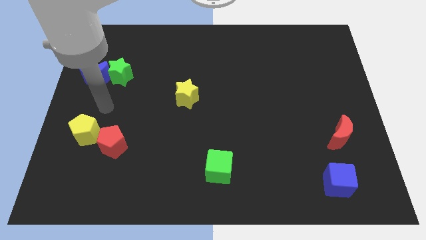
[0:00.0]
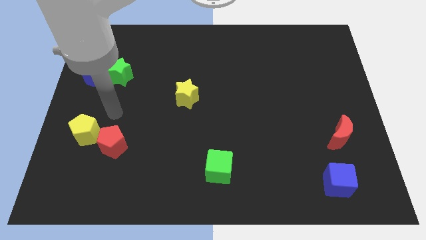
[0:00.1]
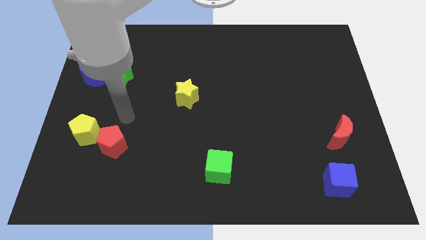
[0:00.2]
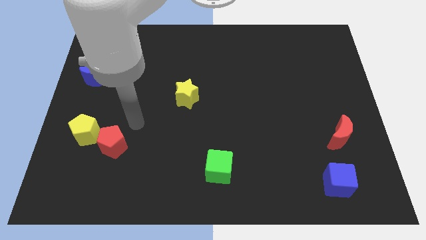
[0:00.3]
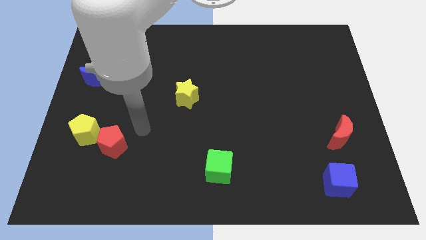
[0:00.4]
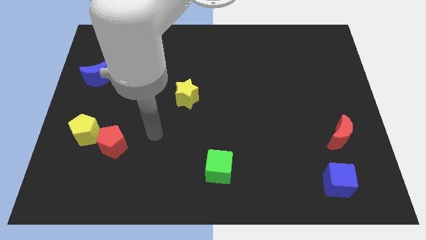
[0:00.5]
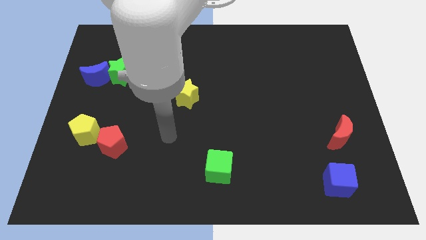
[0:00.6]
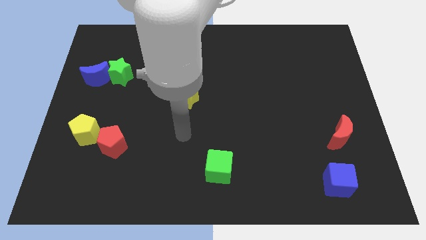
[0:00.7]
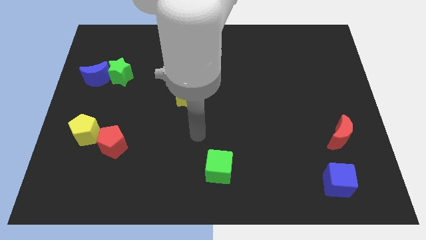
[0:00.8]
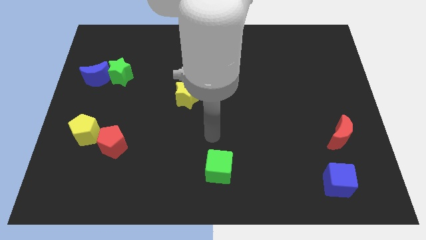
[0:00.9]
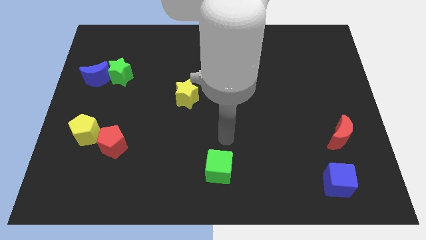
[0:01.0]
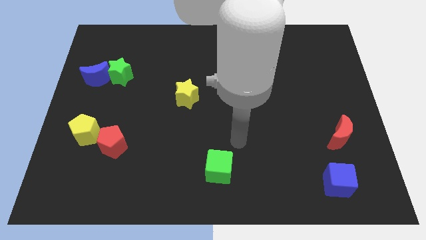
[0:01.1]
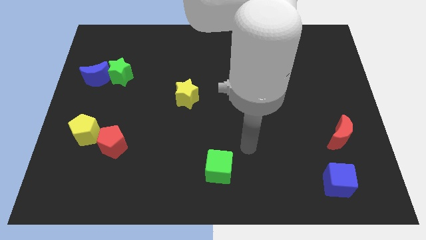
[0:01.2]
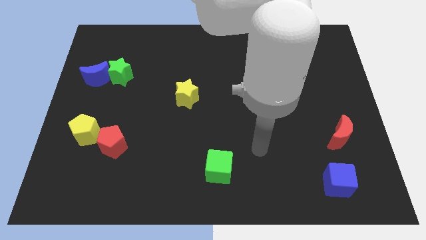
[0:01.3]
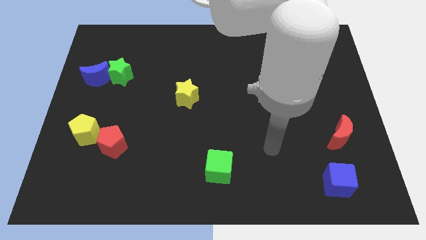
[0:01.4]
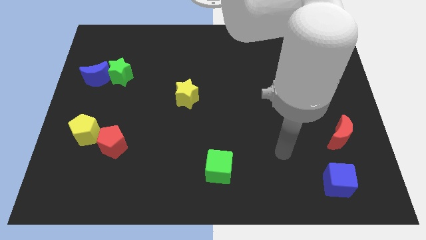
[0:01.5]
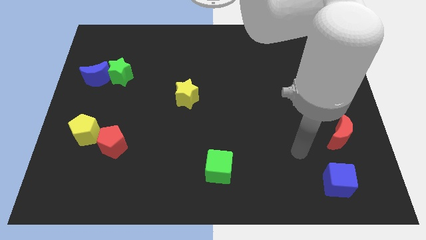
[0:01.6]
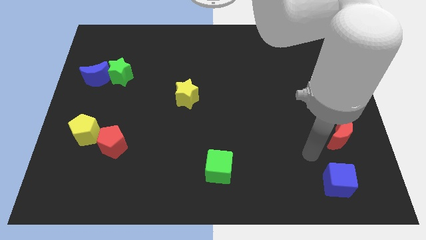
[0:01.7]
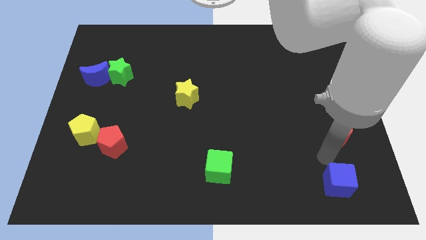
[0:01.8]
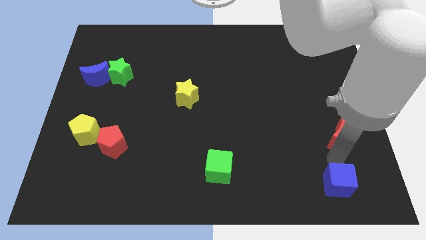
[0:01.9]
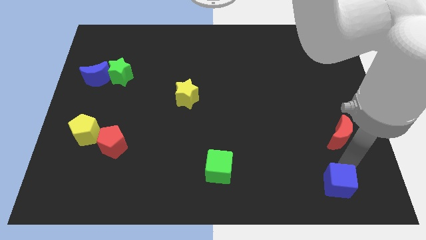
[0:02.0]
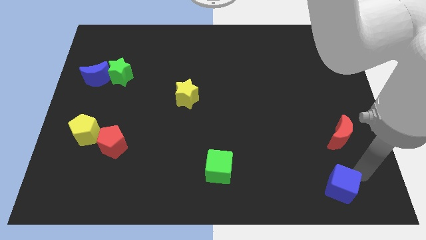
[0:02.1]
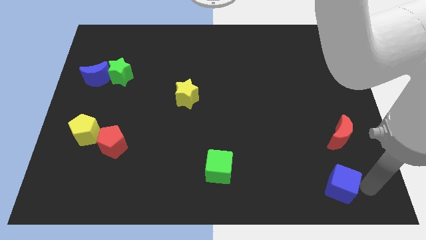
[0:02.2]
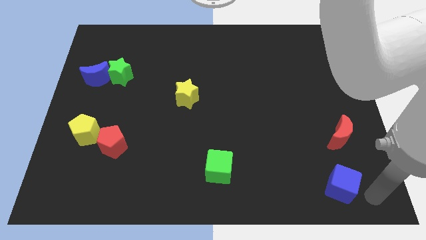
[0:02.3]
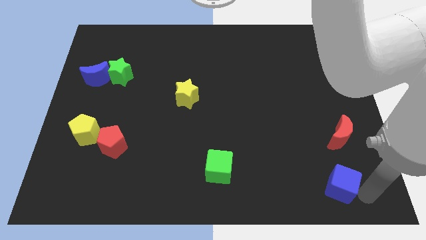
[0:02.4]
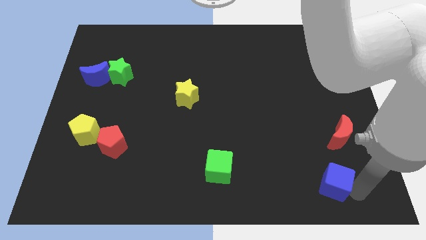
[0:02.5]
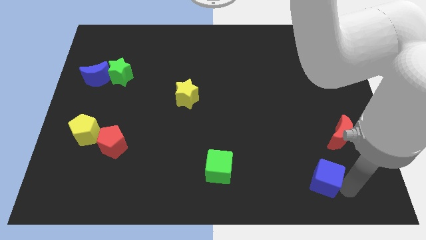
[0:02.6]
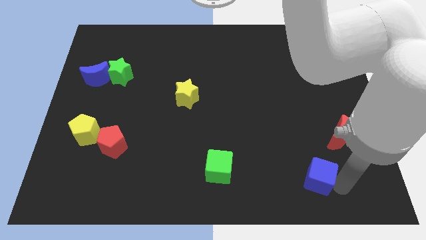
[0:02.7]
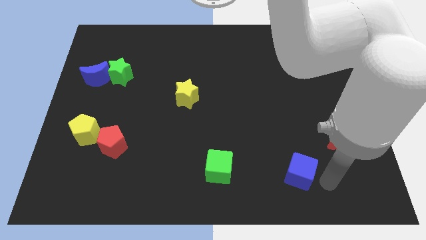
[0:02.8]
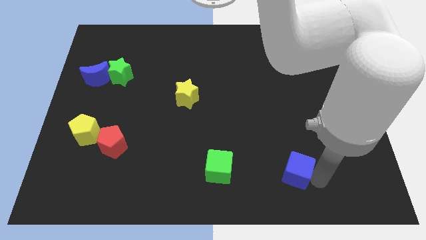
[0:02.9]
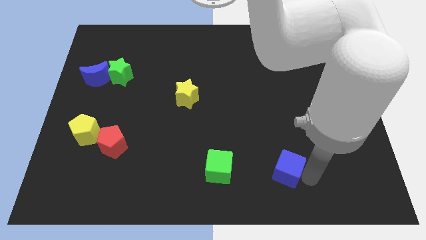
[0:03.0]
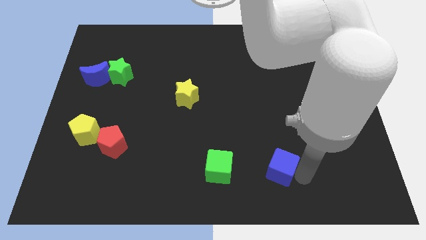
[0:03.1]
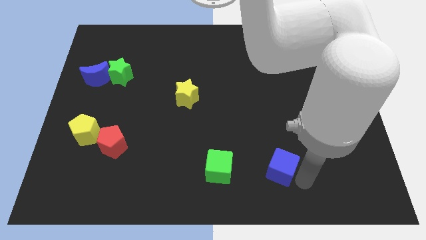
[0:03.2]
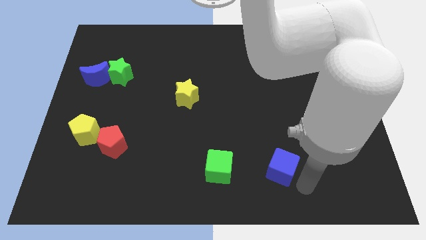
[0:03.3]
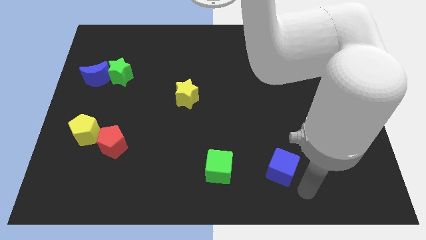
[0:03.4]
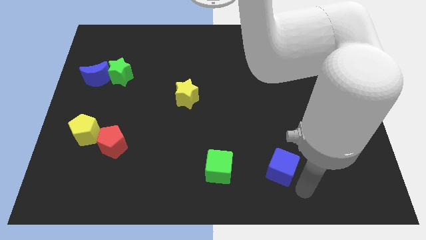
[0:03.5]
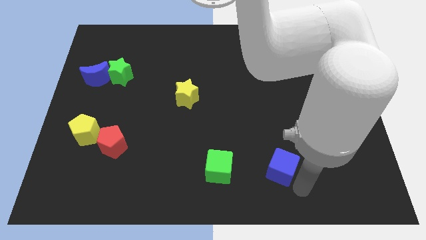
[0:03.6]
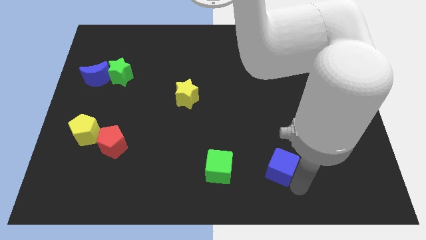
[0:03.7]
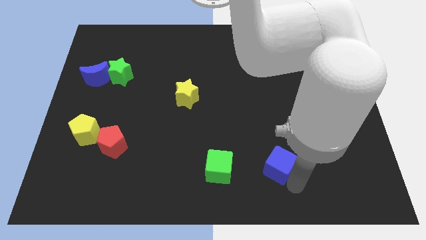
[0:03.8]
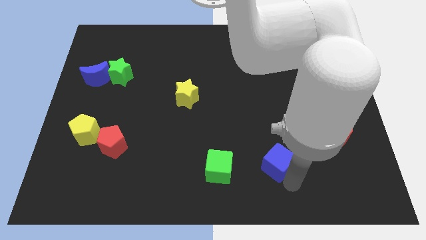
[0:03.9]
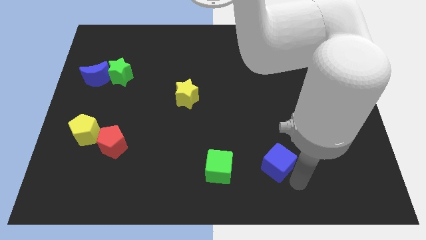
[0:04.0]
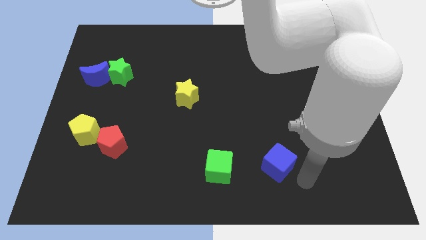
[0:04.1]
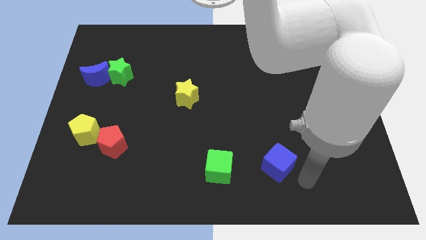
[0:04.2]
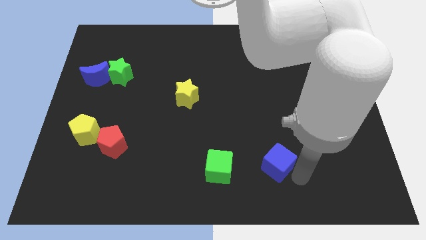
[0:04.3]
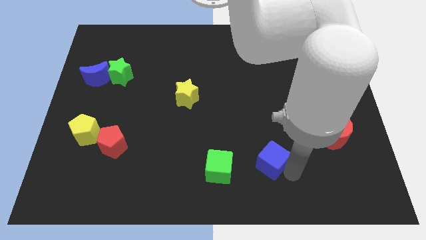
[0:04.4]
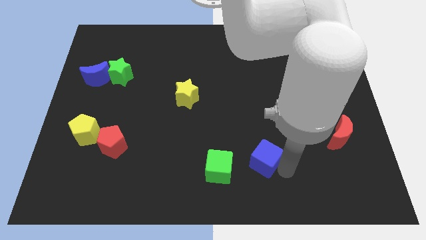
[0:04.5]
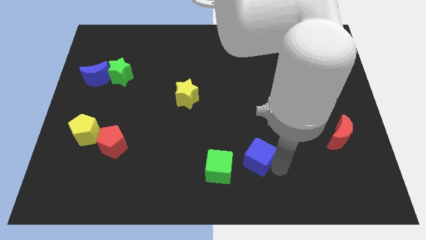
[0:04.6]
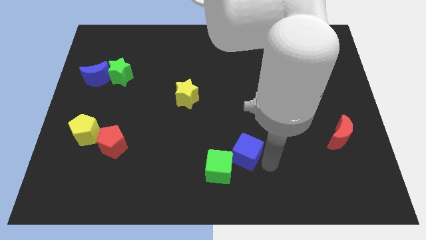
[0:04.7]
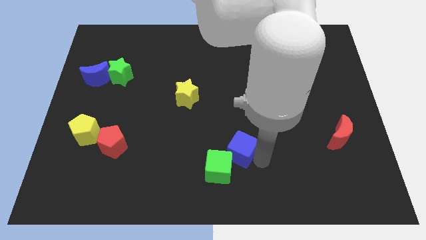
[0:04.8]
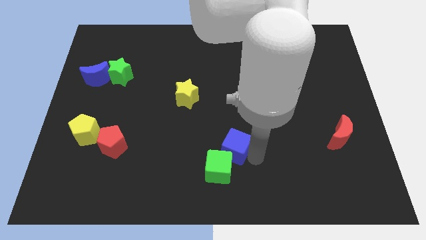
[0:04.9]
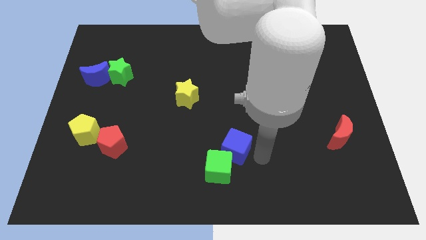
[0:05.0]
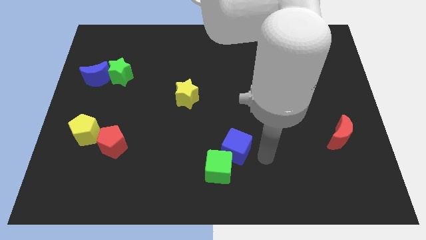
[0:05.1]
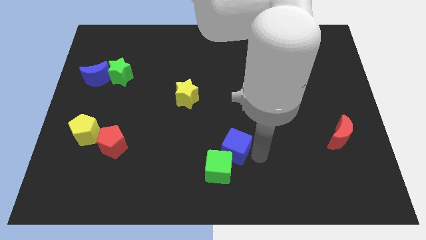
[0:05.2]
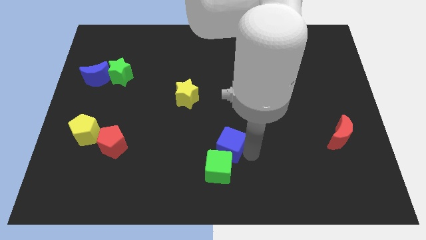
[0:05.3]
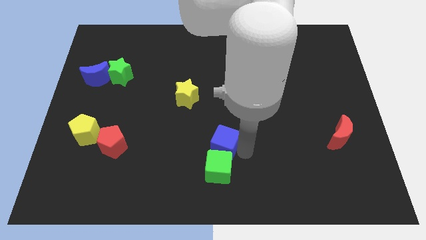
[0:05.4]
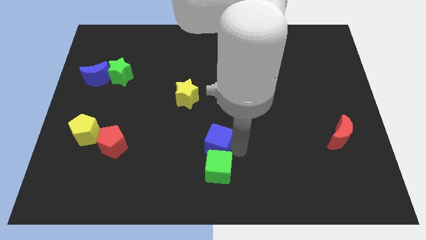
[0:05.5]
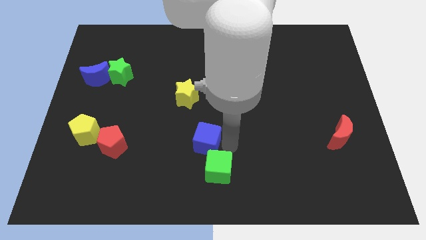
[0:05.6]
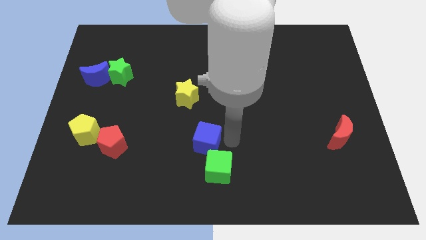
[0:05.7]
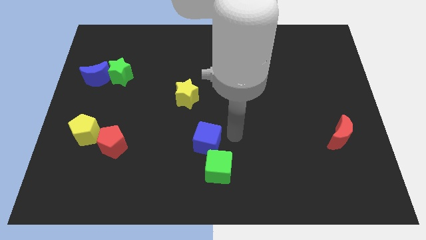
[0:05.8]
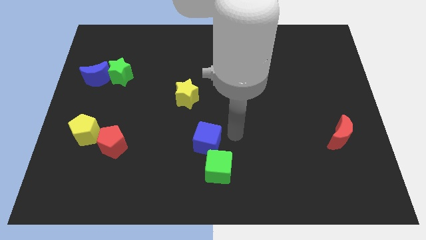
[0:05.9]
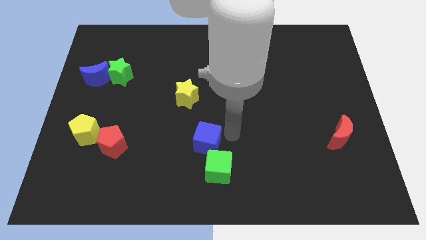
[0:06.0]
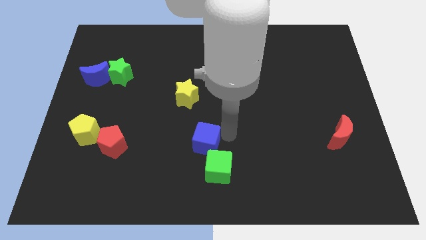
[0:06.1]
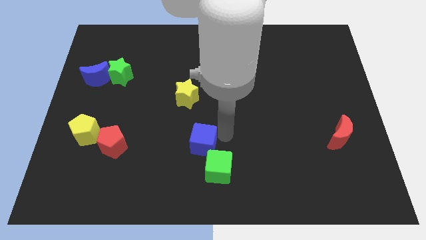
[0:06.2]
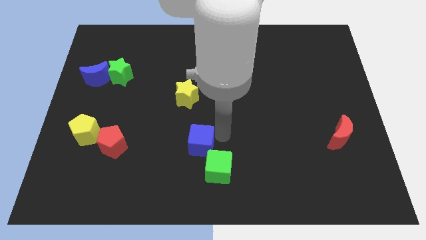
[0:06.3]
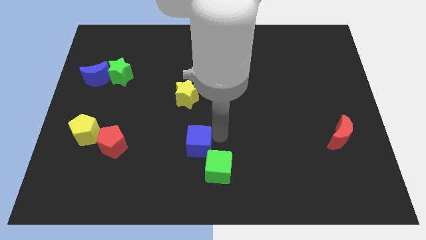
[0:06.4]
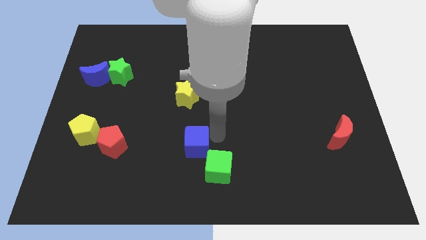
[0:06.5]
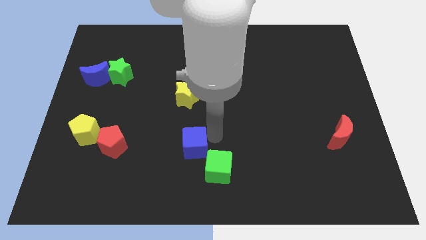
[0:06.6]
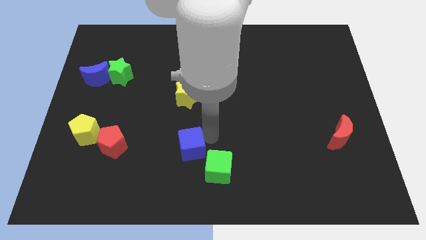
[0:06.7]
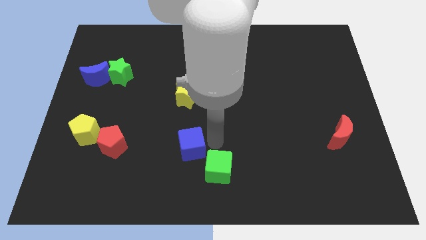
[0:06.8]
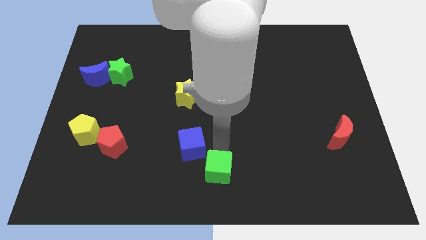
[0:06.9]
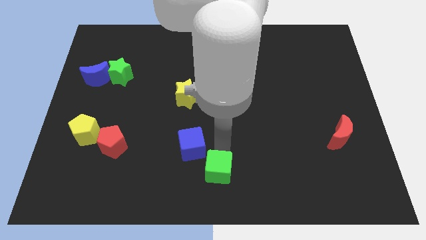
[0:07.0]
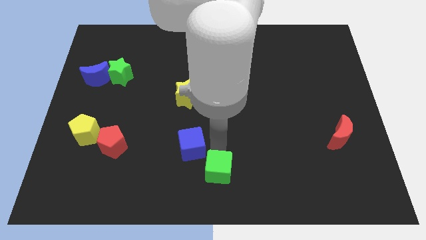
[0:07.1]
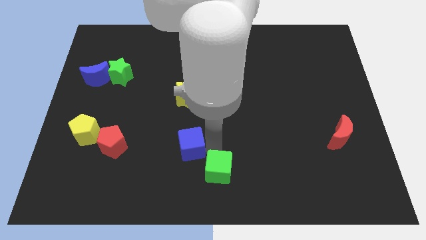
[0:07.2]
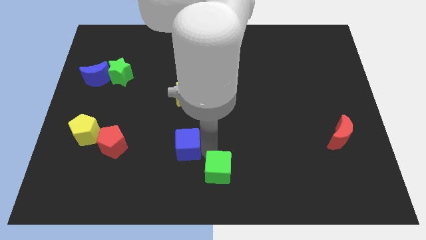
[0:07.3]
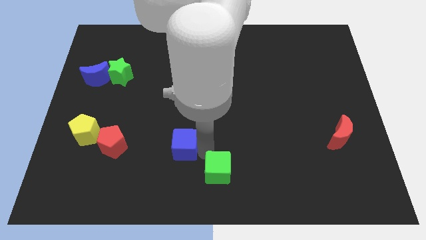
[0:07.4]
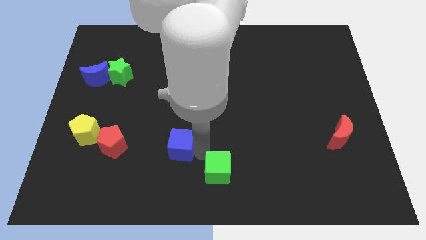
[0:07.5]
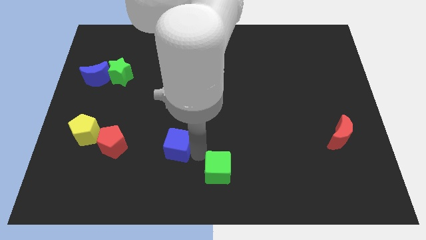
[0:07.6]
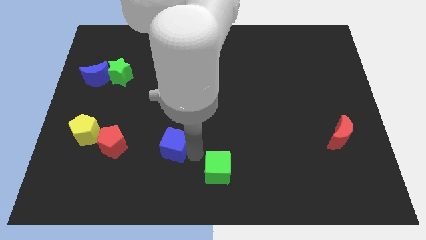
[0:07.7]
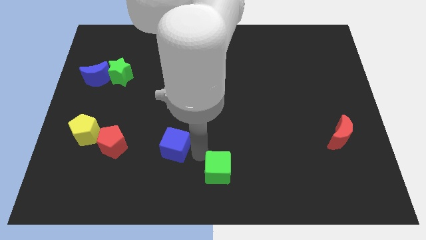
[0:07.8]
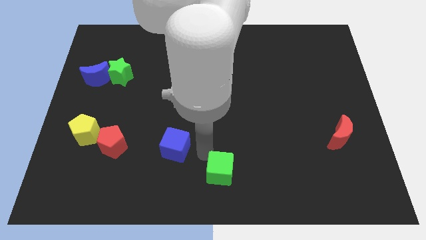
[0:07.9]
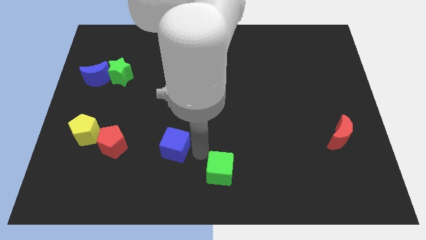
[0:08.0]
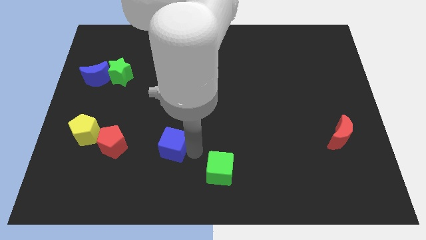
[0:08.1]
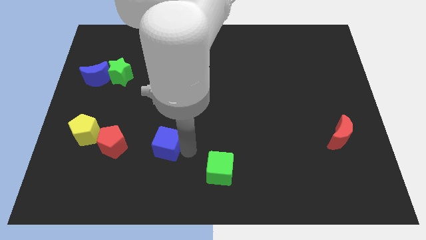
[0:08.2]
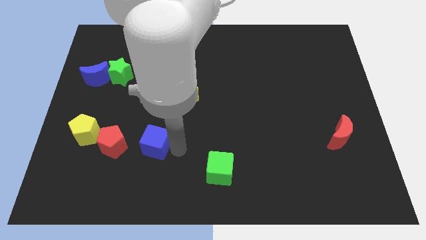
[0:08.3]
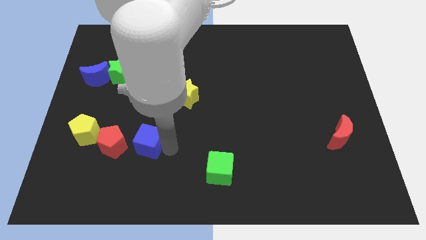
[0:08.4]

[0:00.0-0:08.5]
move the blue cube right of the yellow pentagon
